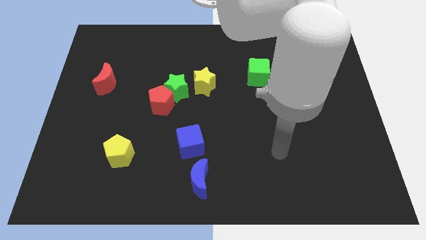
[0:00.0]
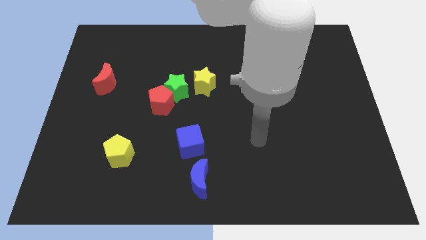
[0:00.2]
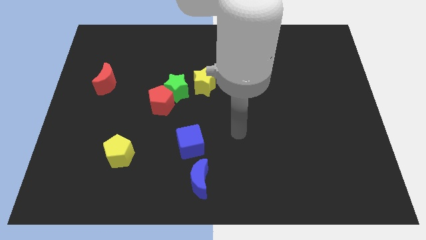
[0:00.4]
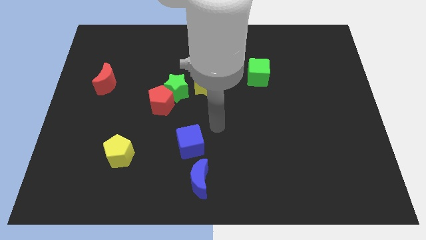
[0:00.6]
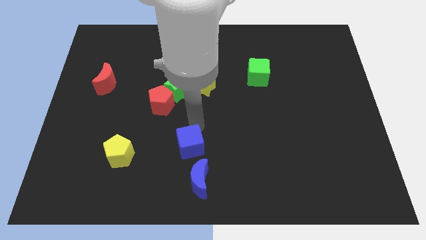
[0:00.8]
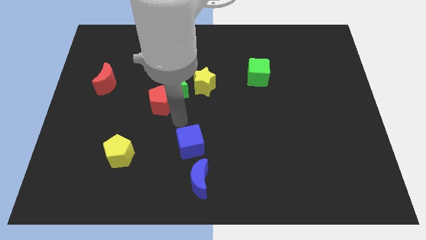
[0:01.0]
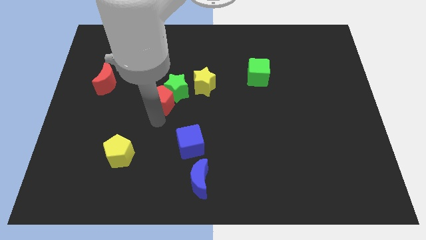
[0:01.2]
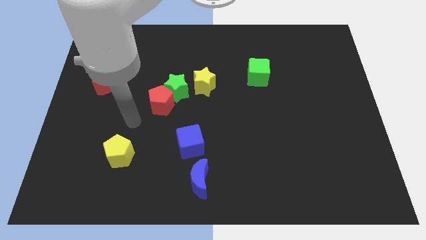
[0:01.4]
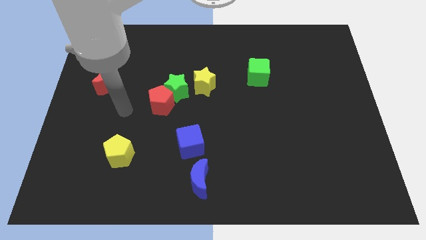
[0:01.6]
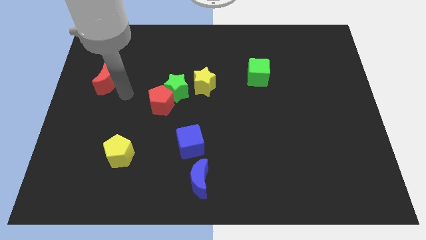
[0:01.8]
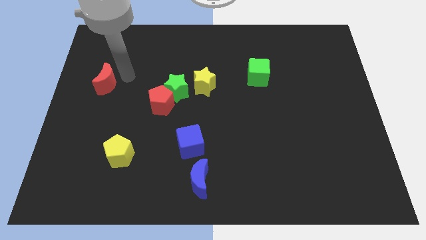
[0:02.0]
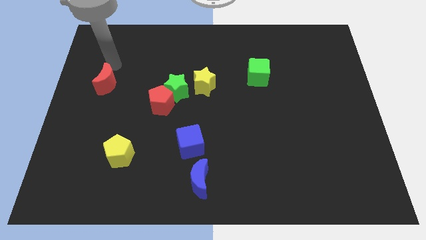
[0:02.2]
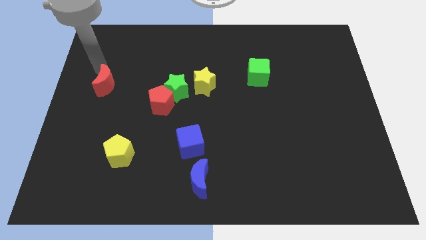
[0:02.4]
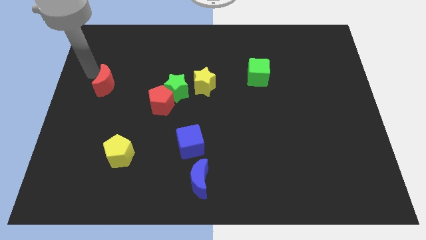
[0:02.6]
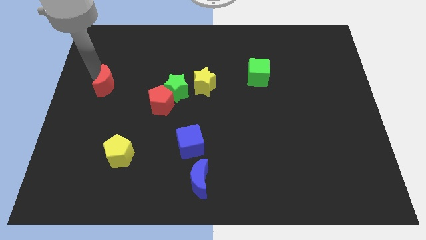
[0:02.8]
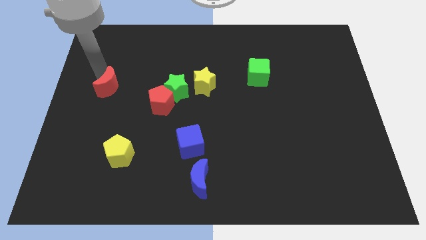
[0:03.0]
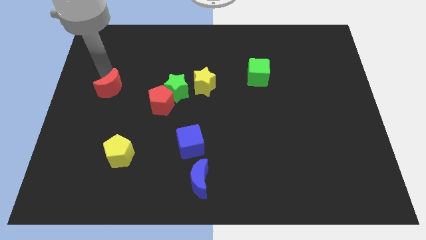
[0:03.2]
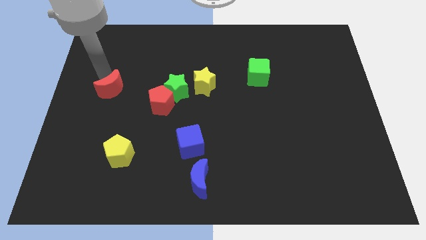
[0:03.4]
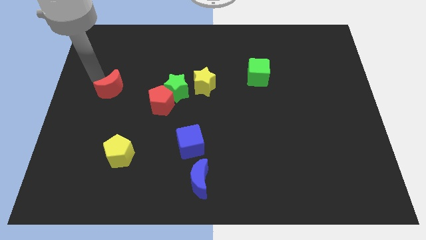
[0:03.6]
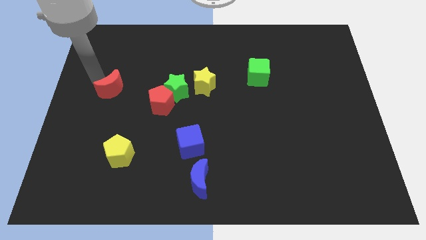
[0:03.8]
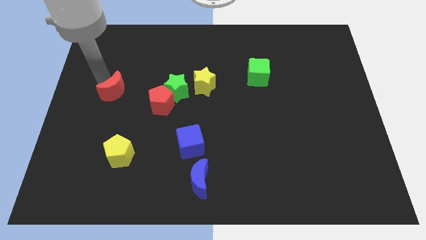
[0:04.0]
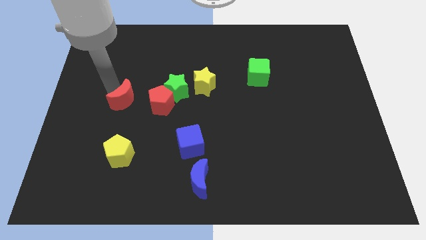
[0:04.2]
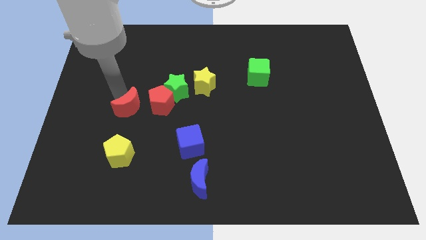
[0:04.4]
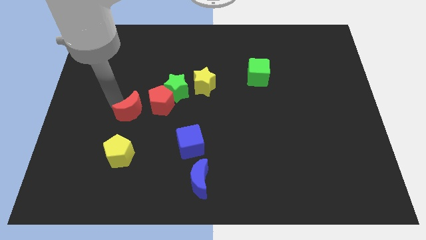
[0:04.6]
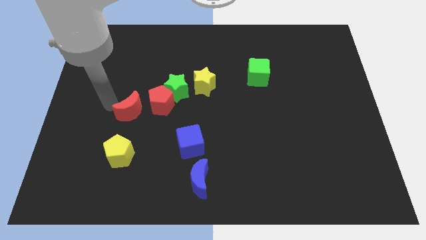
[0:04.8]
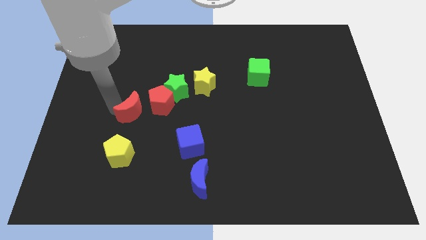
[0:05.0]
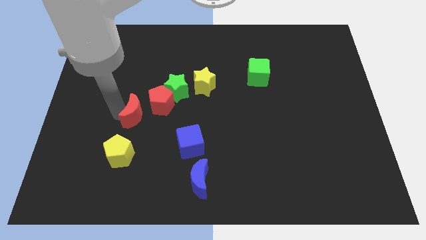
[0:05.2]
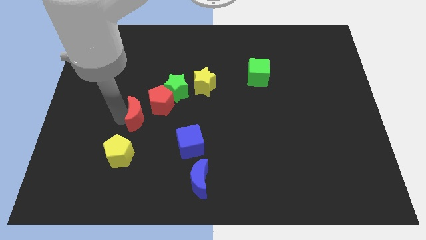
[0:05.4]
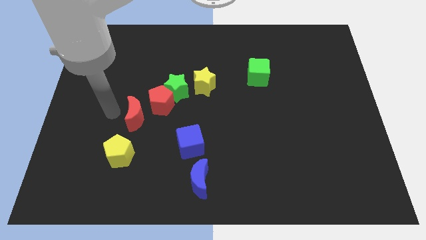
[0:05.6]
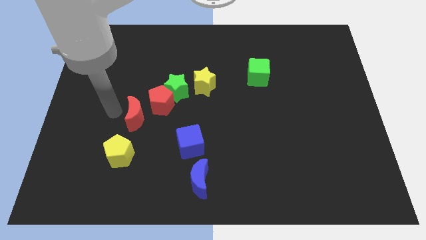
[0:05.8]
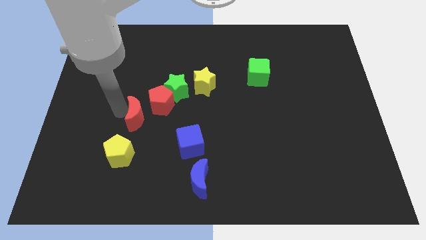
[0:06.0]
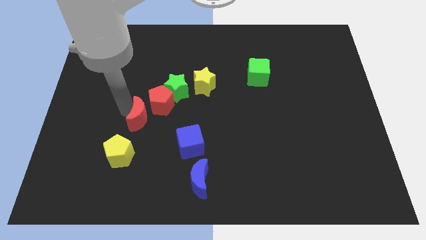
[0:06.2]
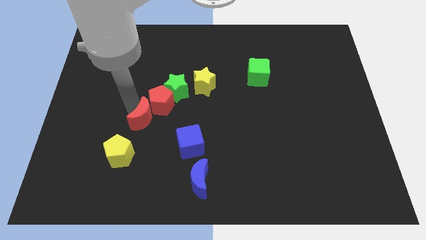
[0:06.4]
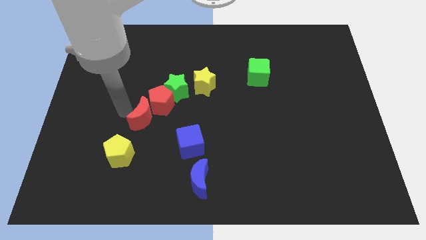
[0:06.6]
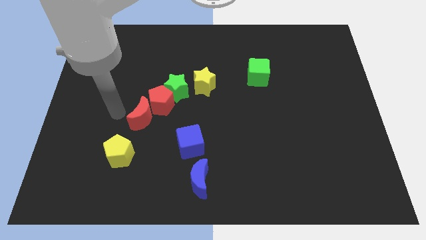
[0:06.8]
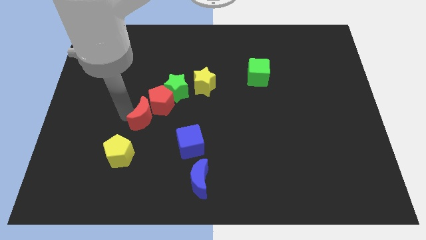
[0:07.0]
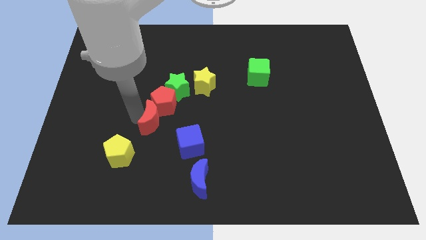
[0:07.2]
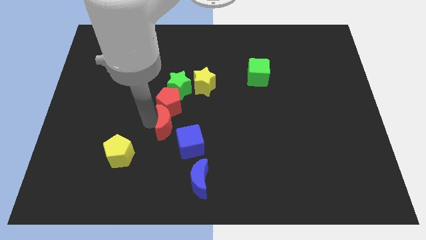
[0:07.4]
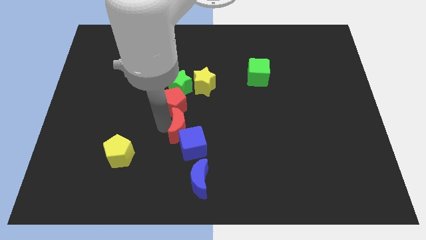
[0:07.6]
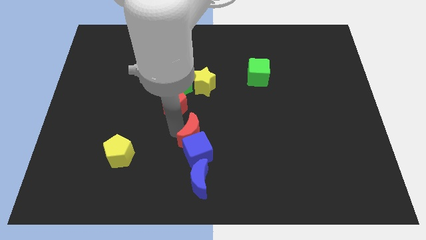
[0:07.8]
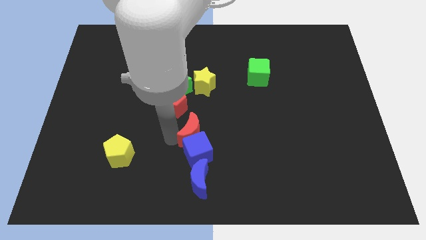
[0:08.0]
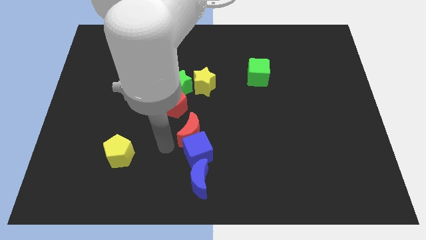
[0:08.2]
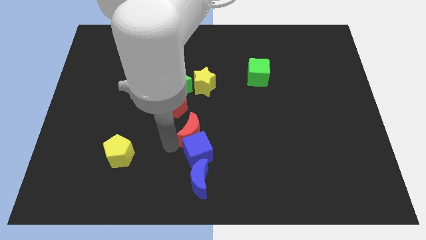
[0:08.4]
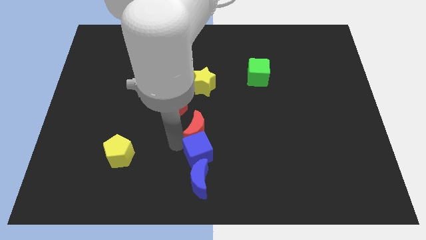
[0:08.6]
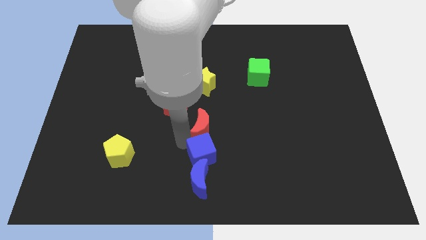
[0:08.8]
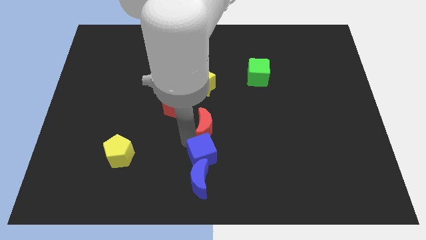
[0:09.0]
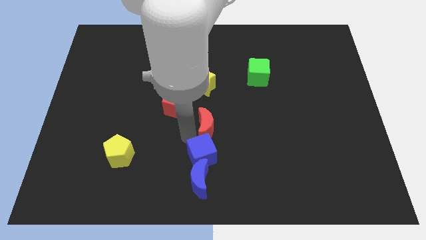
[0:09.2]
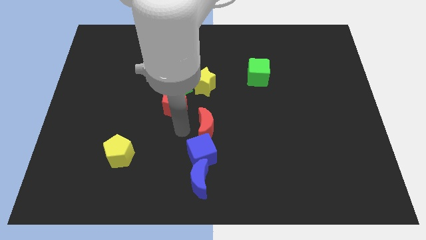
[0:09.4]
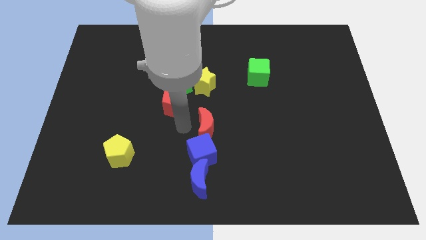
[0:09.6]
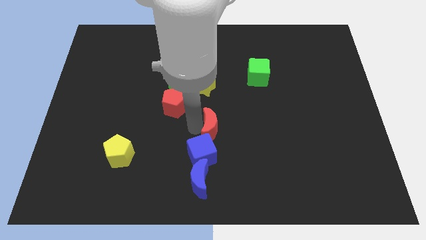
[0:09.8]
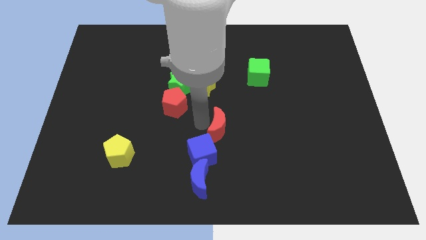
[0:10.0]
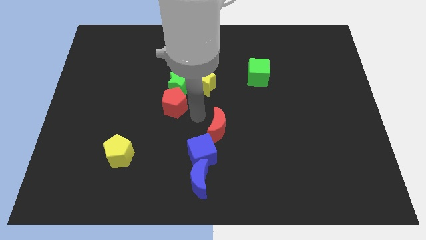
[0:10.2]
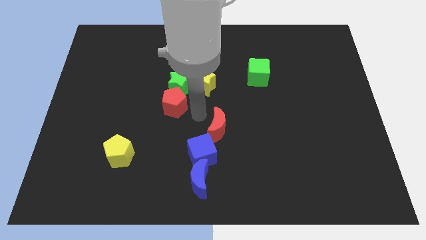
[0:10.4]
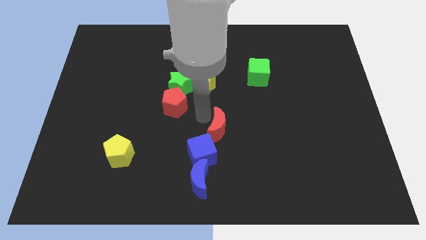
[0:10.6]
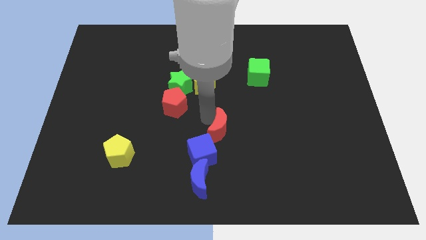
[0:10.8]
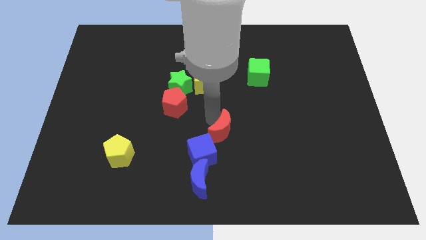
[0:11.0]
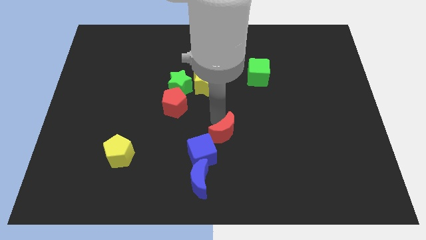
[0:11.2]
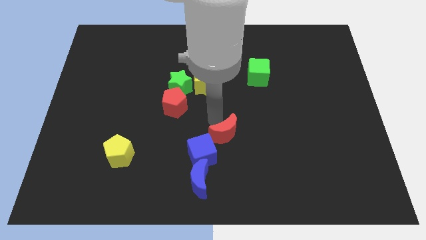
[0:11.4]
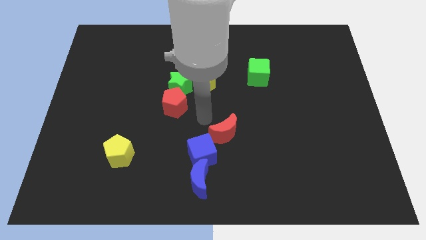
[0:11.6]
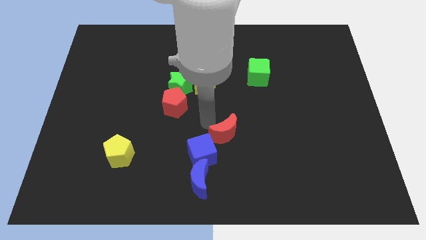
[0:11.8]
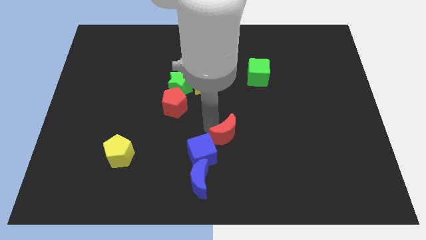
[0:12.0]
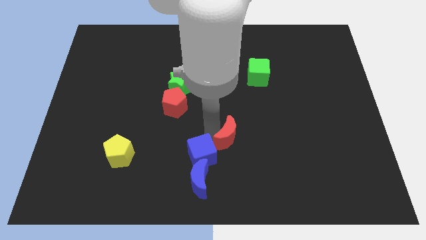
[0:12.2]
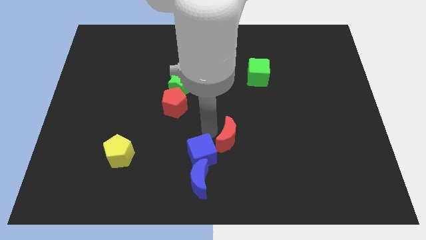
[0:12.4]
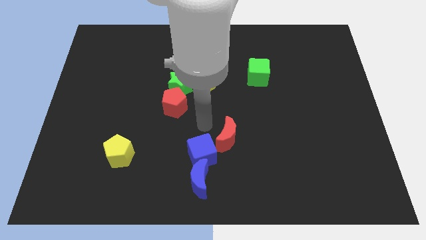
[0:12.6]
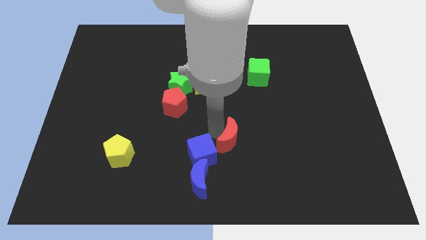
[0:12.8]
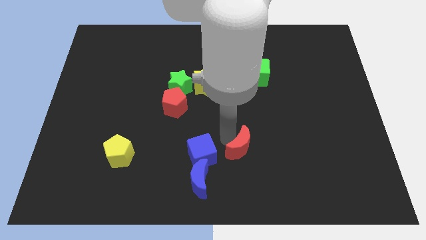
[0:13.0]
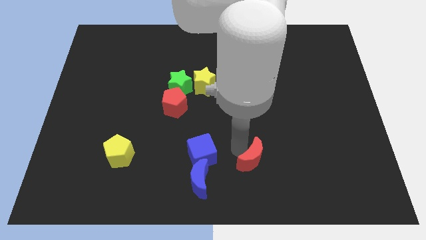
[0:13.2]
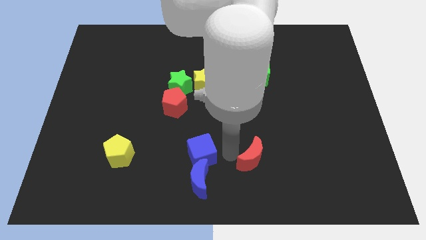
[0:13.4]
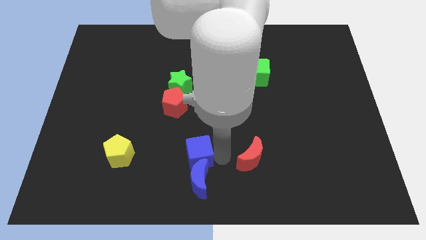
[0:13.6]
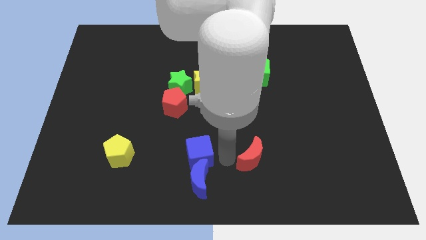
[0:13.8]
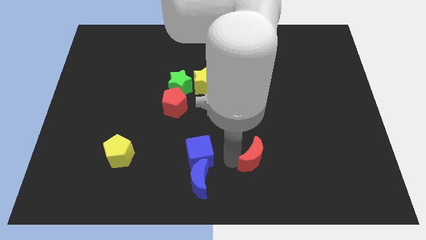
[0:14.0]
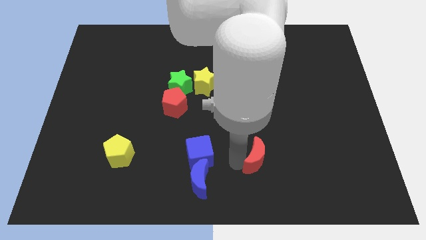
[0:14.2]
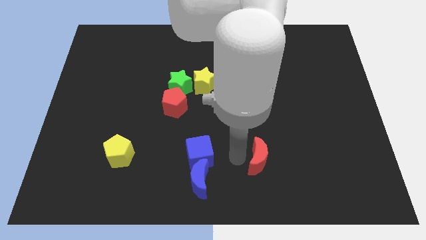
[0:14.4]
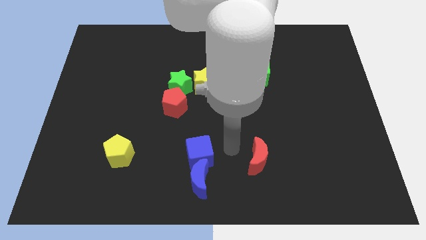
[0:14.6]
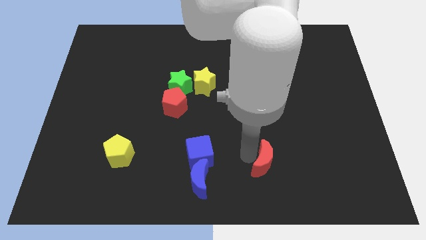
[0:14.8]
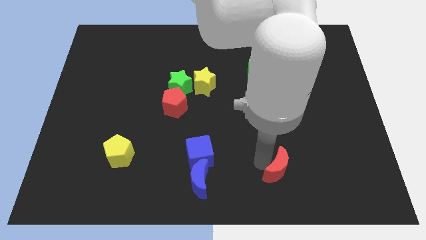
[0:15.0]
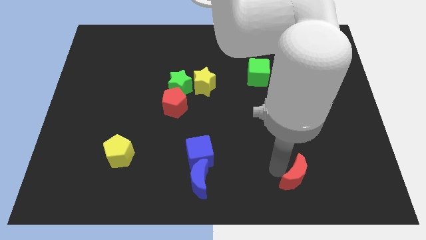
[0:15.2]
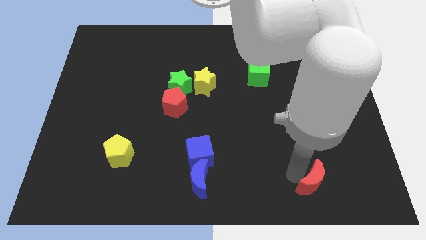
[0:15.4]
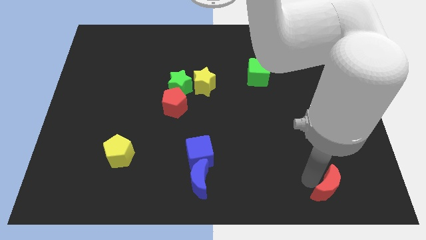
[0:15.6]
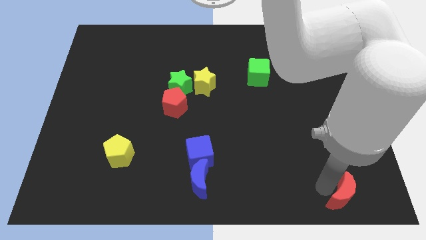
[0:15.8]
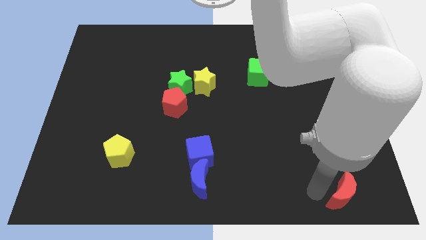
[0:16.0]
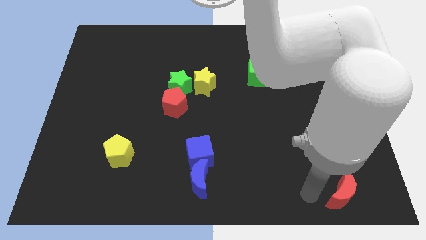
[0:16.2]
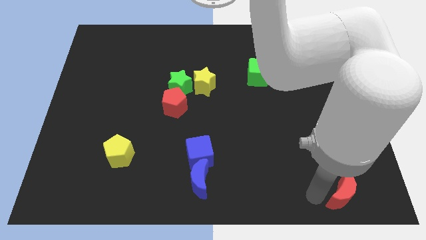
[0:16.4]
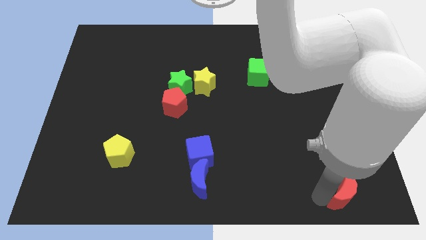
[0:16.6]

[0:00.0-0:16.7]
push the red moon to the lower right corner
